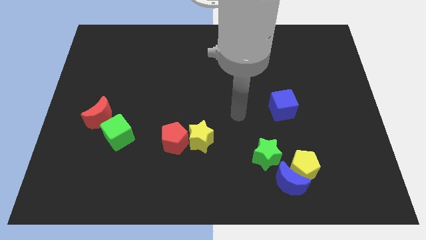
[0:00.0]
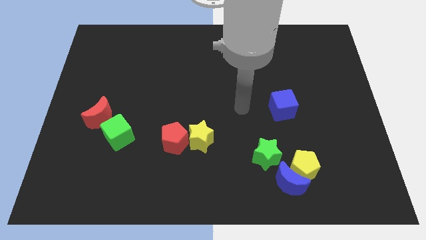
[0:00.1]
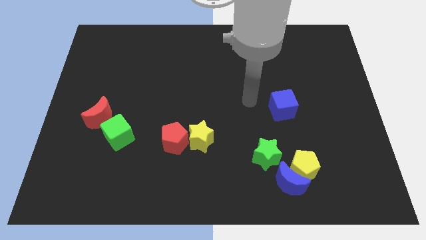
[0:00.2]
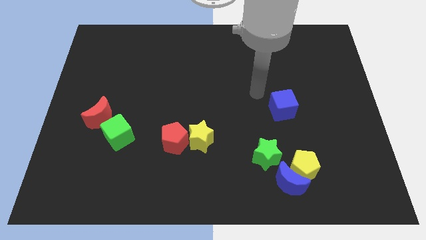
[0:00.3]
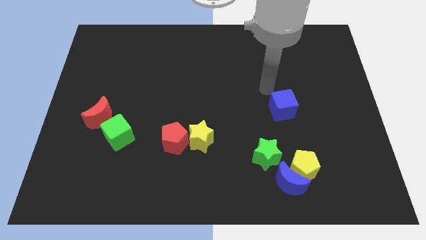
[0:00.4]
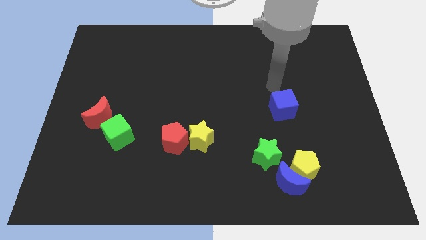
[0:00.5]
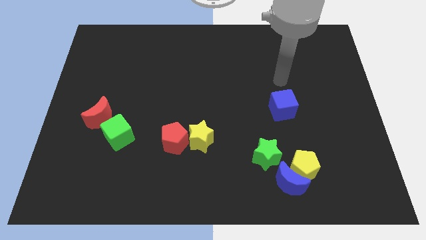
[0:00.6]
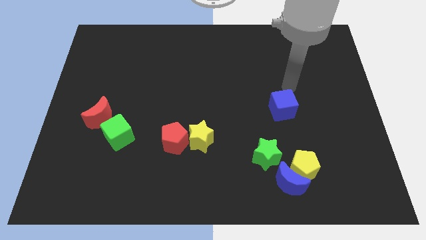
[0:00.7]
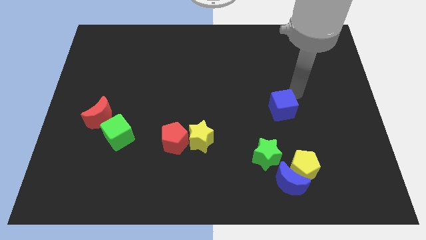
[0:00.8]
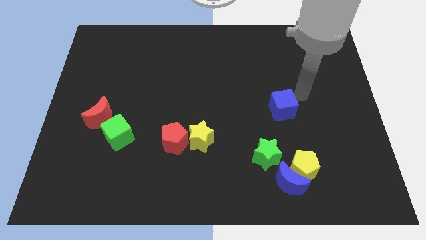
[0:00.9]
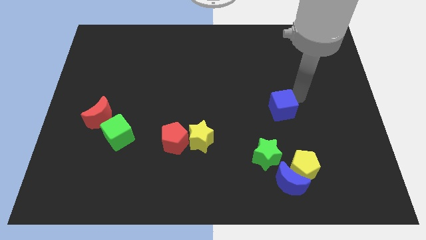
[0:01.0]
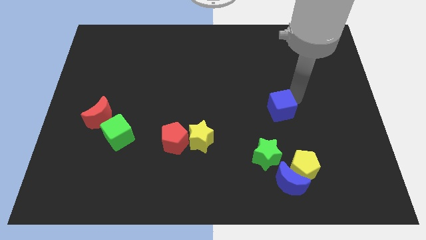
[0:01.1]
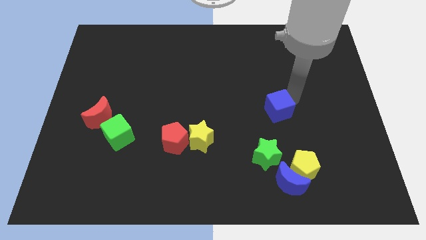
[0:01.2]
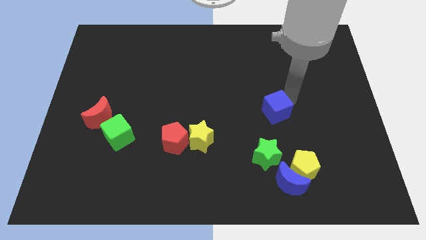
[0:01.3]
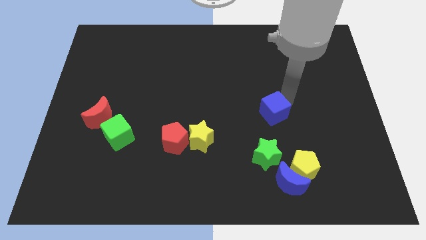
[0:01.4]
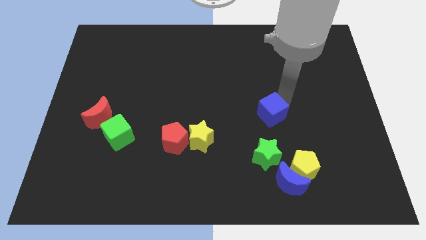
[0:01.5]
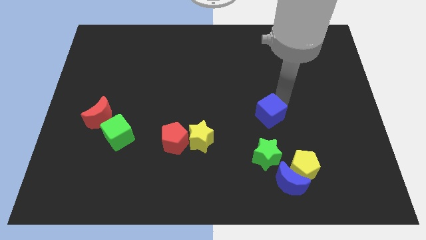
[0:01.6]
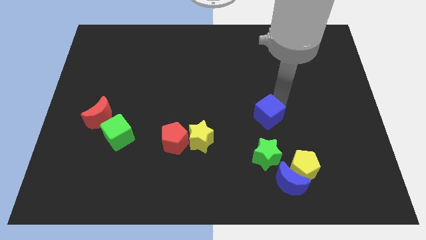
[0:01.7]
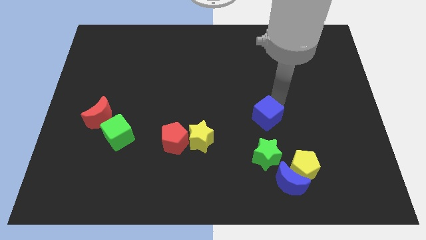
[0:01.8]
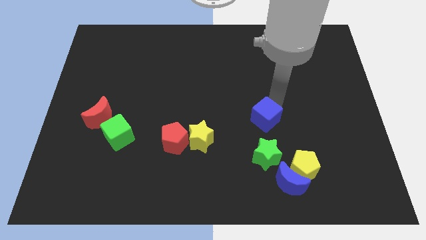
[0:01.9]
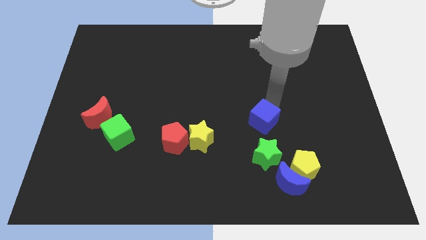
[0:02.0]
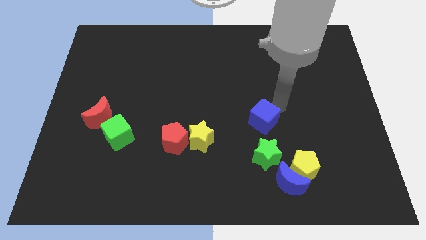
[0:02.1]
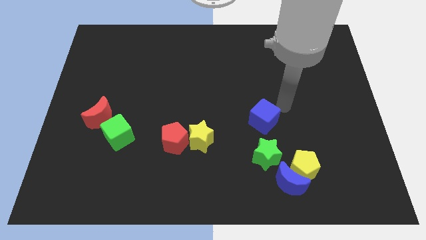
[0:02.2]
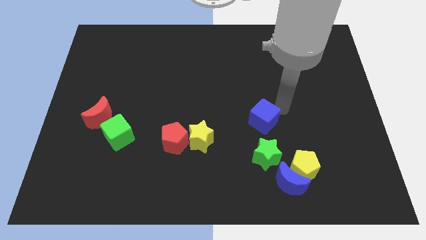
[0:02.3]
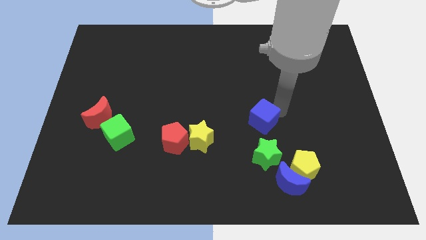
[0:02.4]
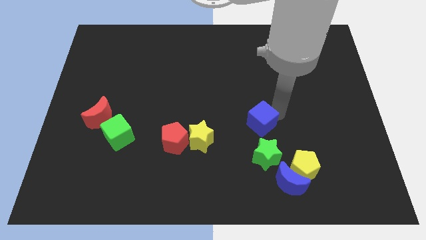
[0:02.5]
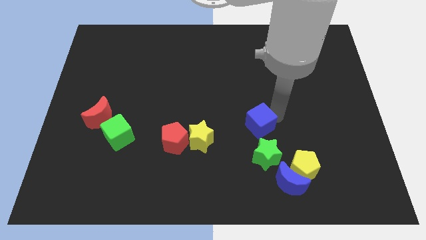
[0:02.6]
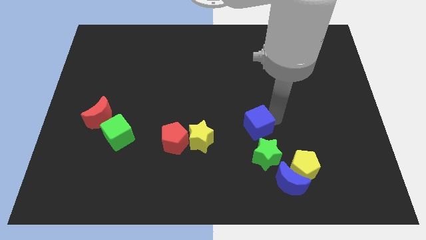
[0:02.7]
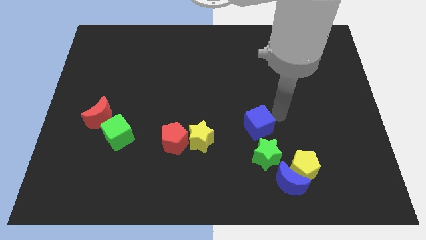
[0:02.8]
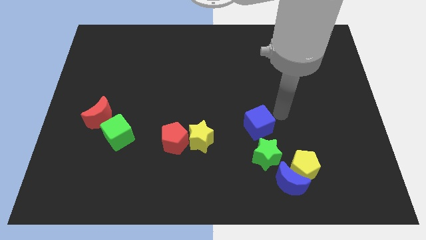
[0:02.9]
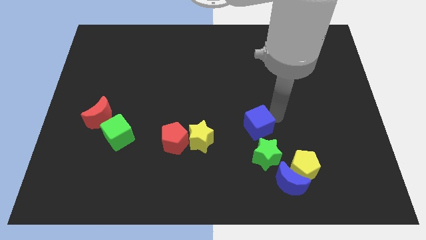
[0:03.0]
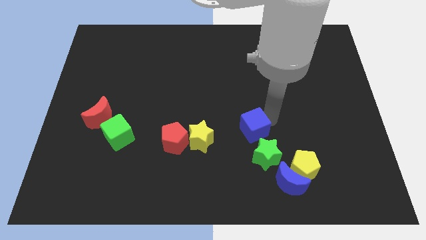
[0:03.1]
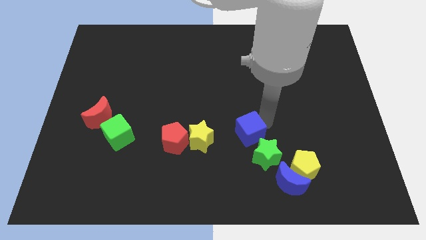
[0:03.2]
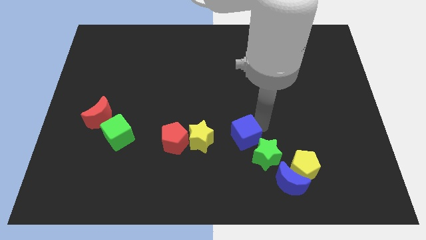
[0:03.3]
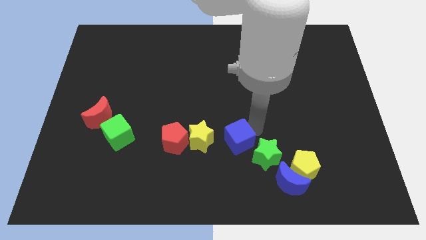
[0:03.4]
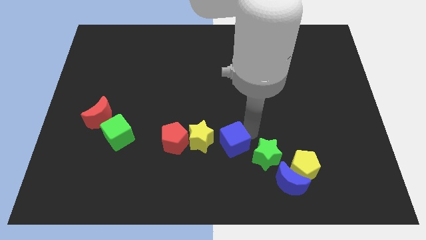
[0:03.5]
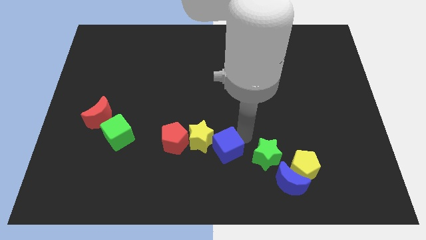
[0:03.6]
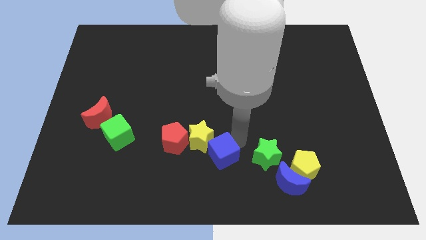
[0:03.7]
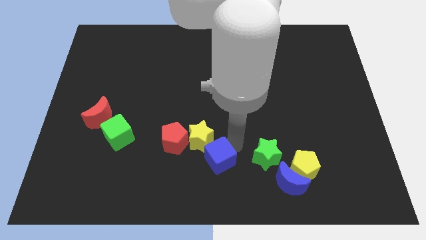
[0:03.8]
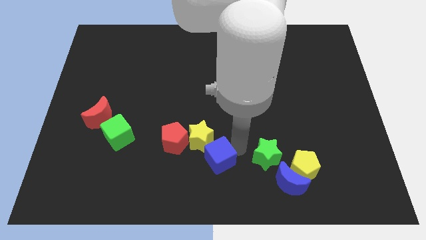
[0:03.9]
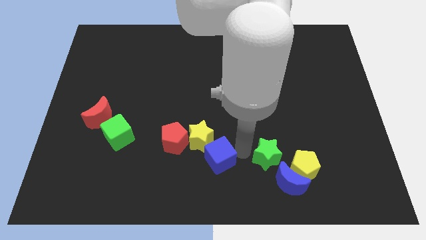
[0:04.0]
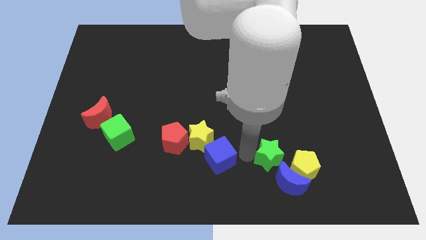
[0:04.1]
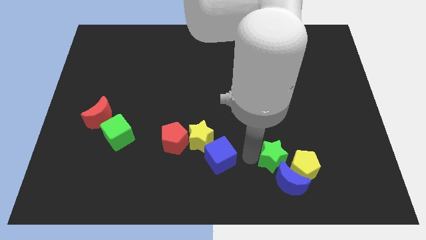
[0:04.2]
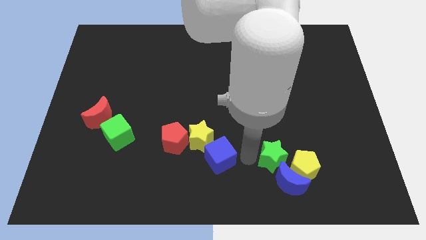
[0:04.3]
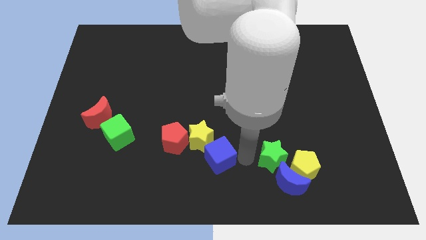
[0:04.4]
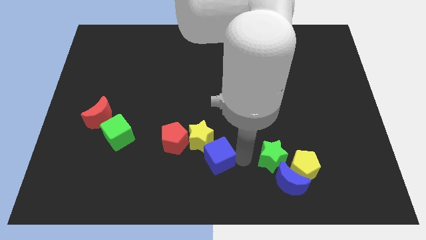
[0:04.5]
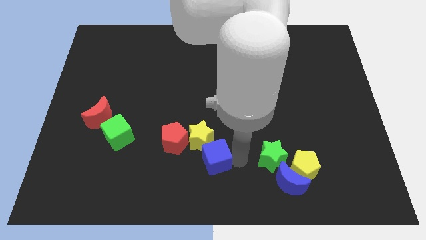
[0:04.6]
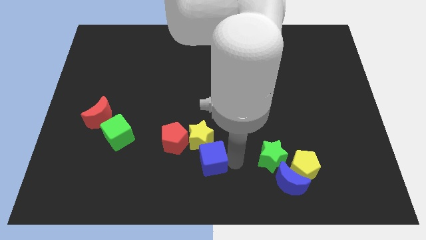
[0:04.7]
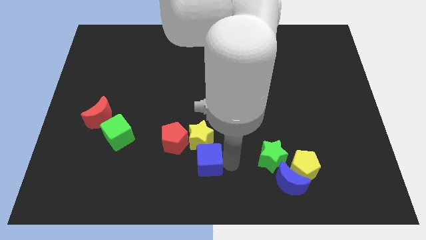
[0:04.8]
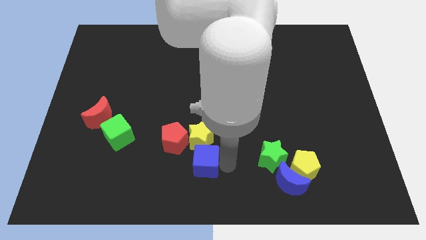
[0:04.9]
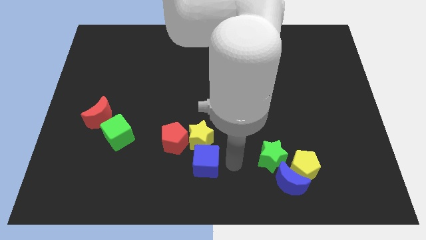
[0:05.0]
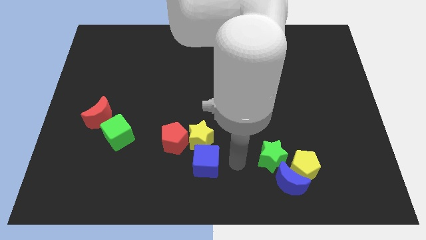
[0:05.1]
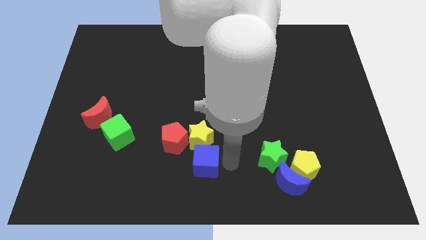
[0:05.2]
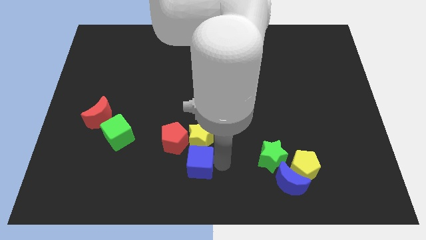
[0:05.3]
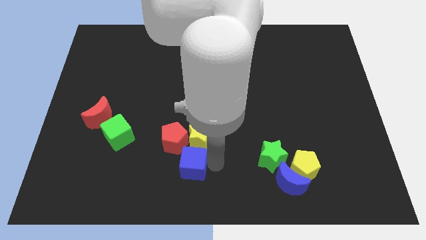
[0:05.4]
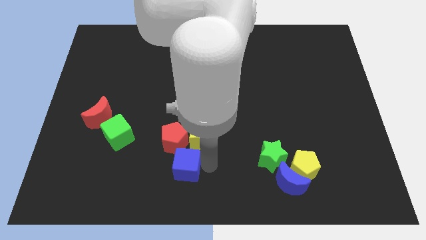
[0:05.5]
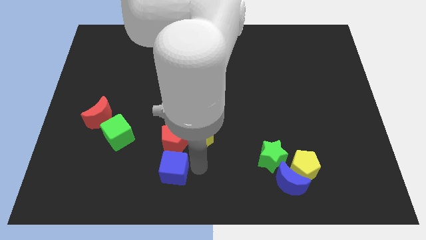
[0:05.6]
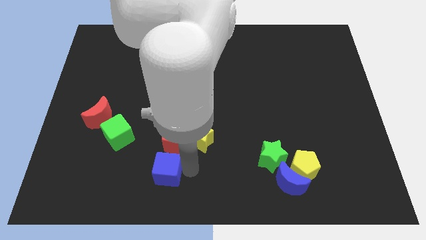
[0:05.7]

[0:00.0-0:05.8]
move the blue cube diagonally down and to the left of the red pentagon

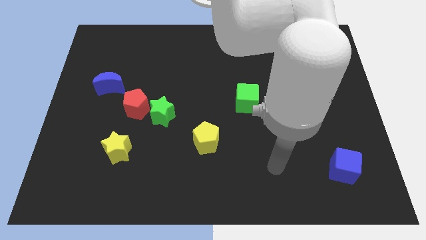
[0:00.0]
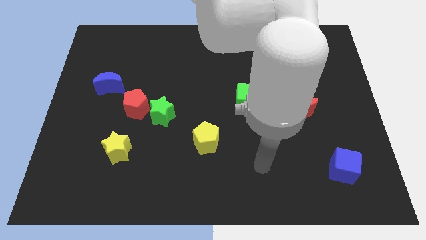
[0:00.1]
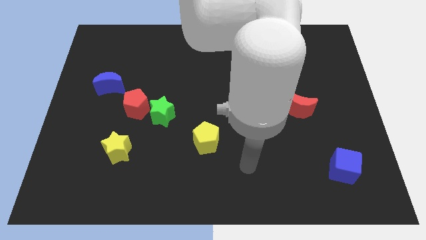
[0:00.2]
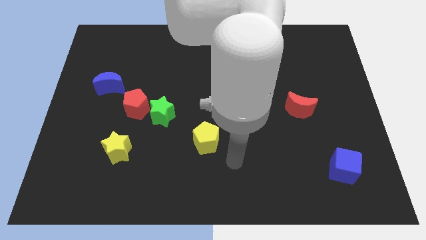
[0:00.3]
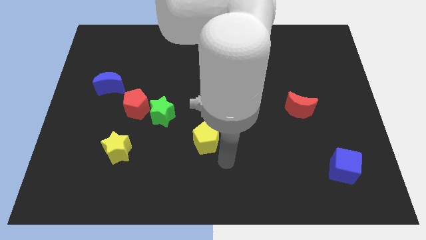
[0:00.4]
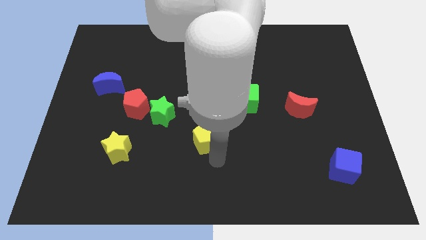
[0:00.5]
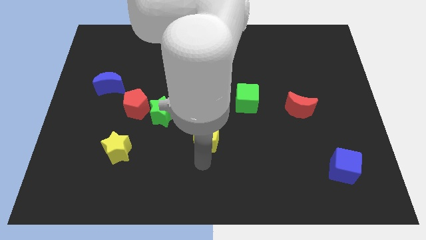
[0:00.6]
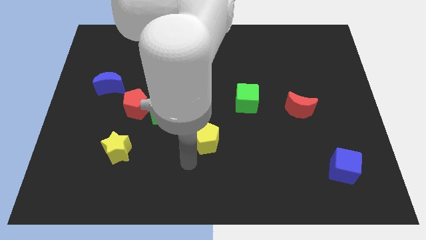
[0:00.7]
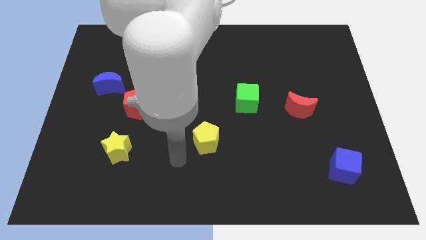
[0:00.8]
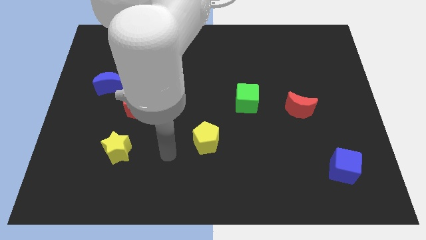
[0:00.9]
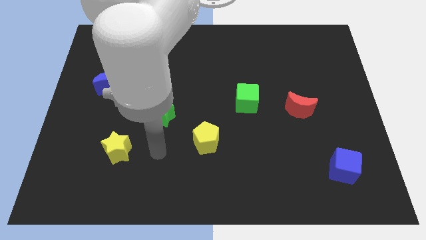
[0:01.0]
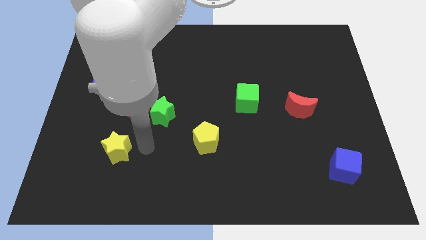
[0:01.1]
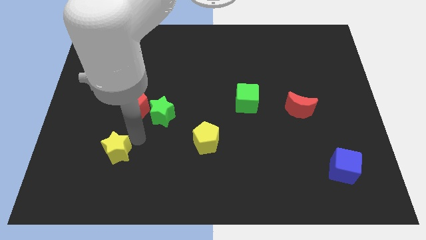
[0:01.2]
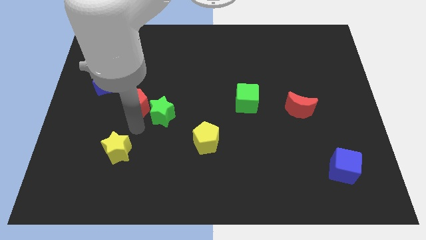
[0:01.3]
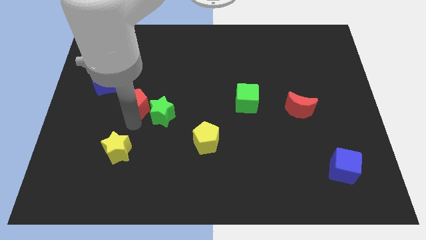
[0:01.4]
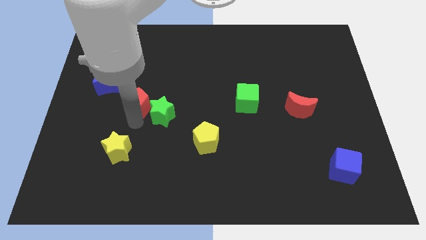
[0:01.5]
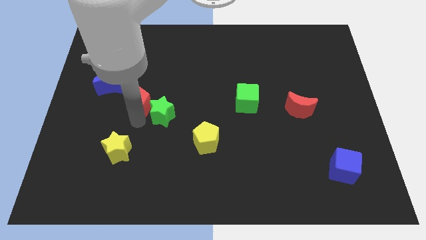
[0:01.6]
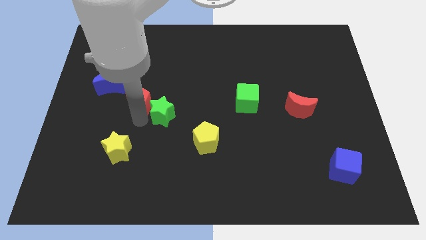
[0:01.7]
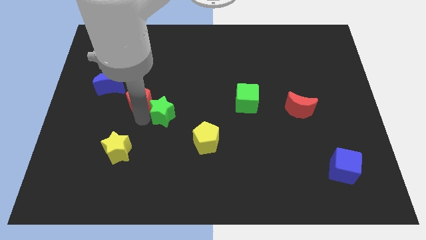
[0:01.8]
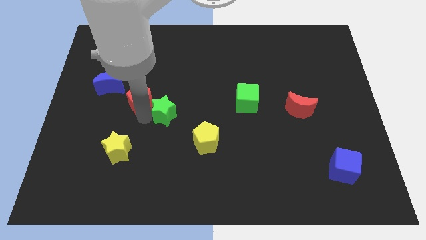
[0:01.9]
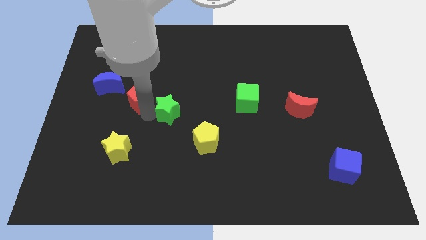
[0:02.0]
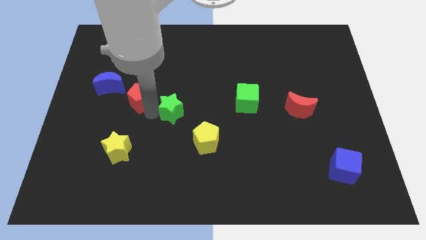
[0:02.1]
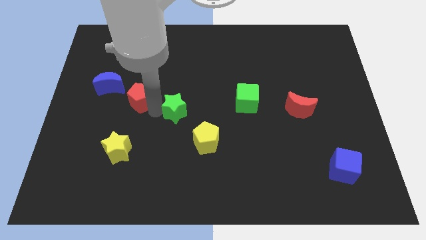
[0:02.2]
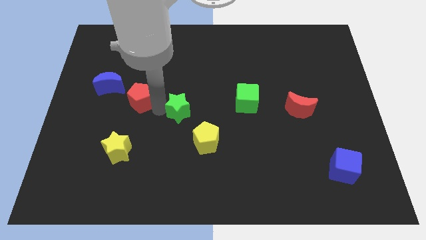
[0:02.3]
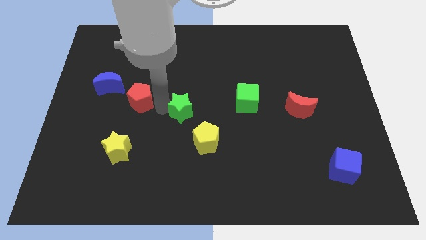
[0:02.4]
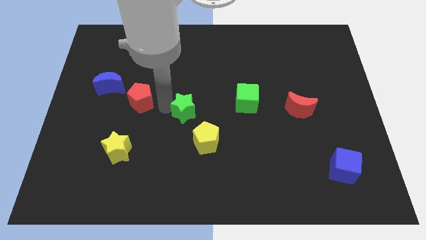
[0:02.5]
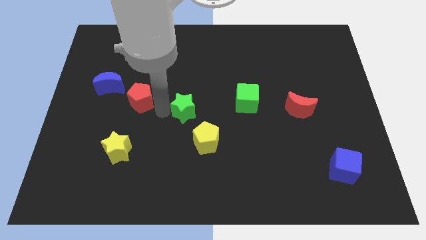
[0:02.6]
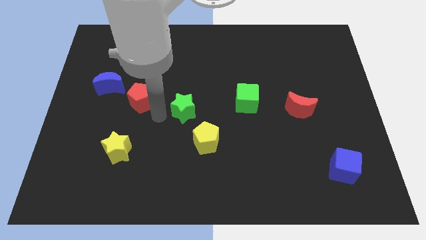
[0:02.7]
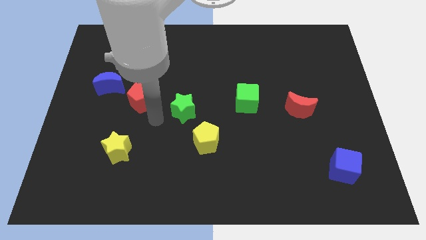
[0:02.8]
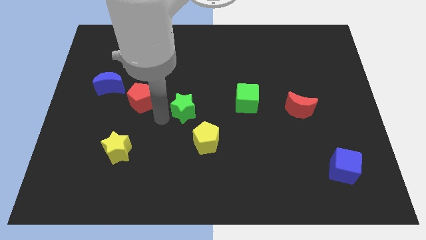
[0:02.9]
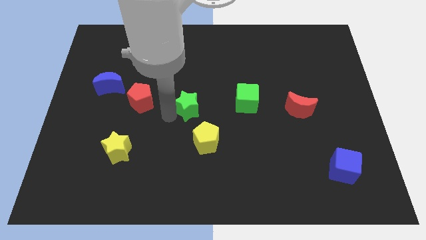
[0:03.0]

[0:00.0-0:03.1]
slide the green star above the yellow pentagon
